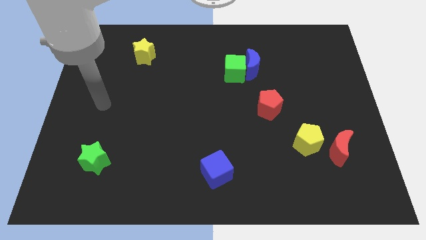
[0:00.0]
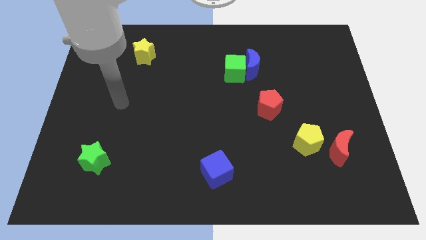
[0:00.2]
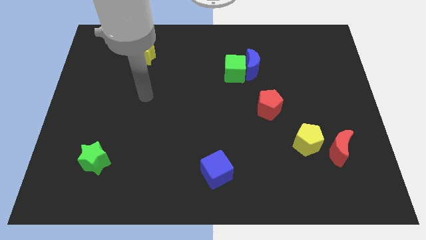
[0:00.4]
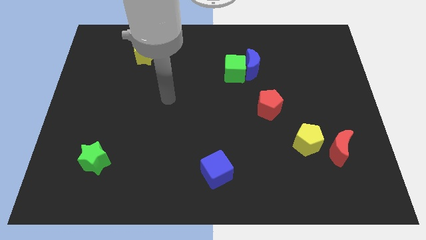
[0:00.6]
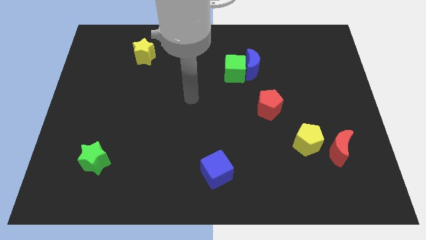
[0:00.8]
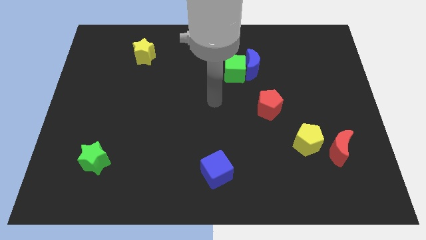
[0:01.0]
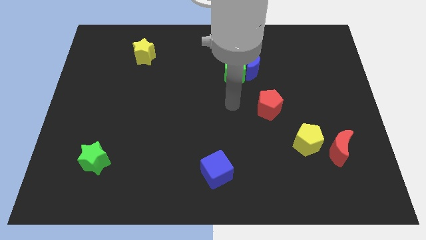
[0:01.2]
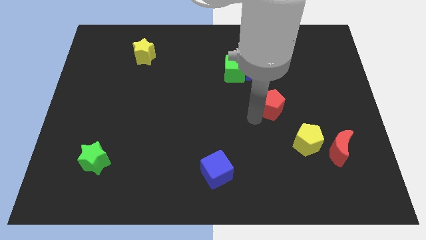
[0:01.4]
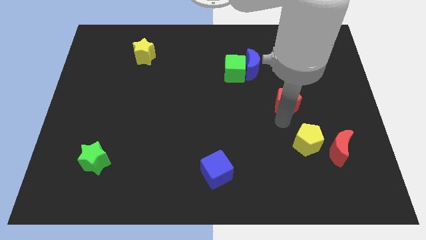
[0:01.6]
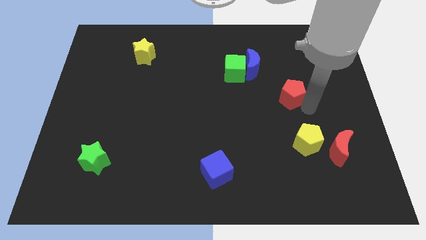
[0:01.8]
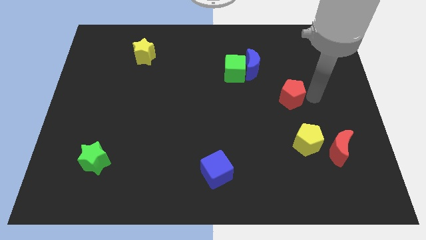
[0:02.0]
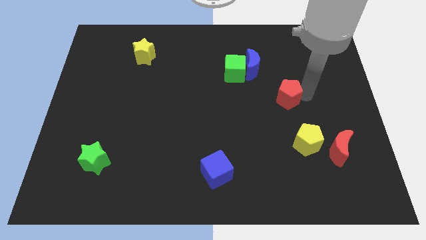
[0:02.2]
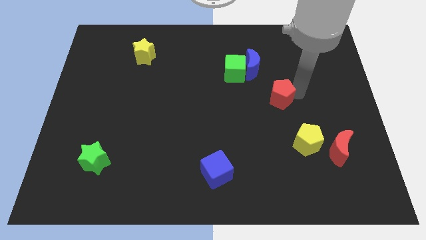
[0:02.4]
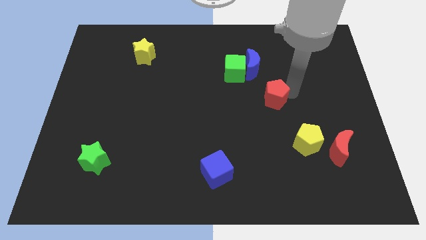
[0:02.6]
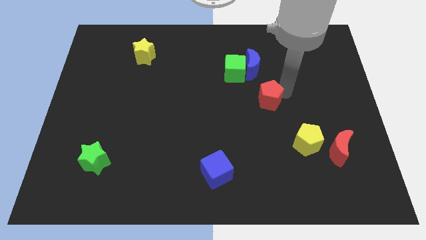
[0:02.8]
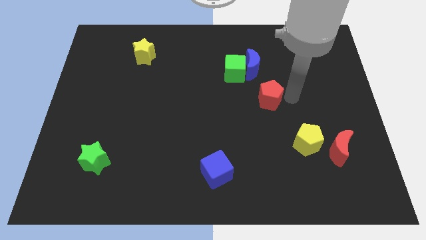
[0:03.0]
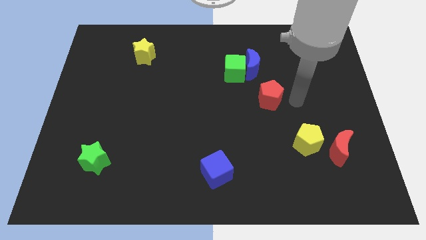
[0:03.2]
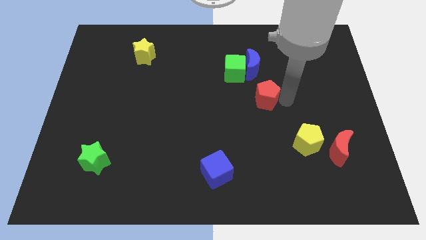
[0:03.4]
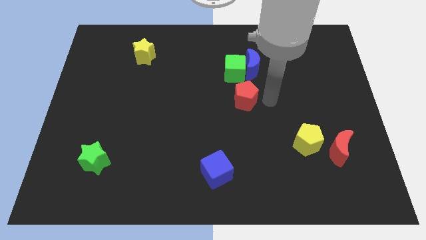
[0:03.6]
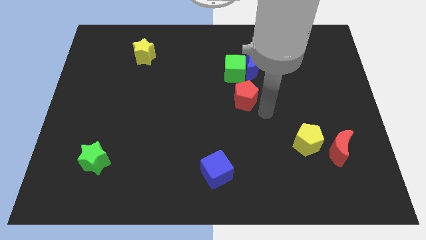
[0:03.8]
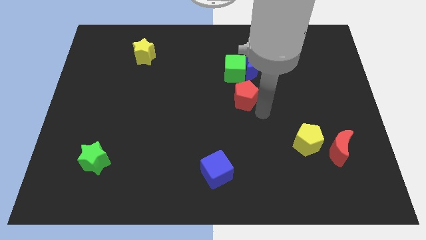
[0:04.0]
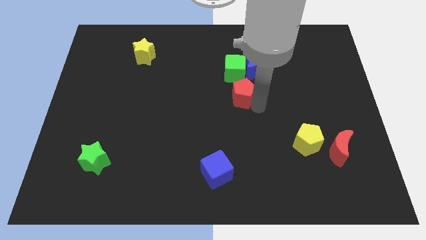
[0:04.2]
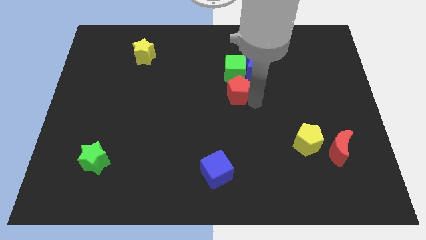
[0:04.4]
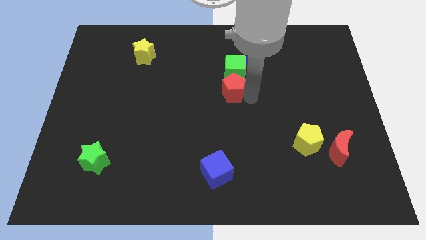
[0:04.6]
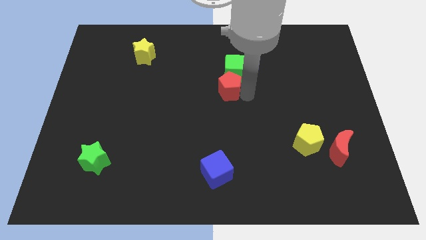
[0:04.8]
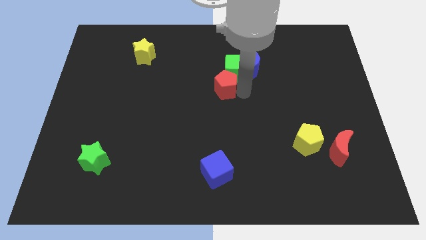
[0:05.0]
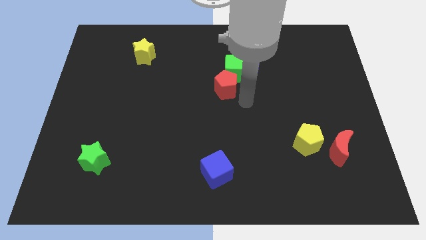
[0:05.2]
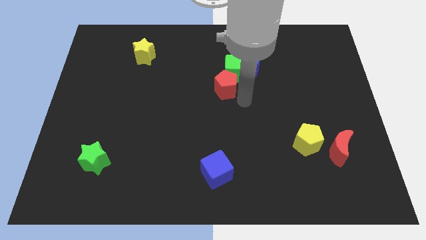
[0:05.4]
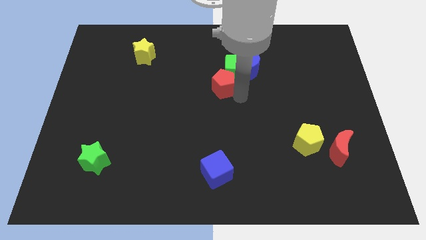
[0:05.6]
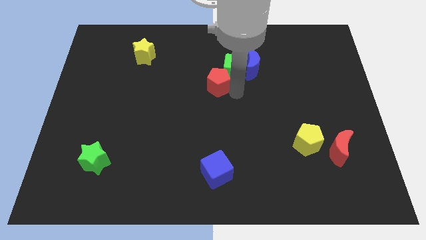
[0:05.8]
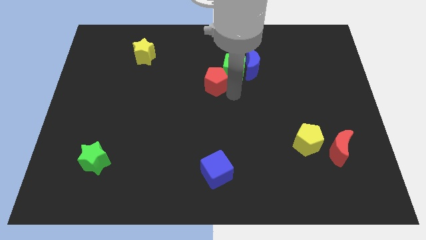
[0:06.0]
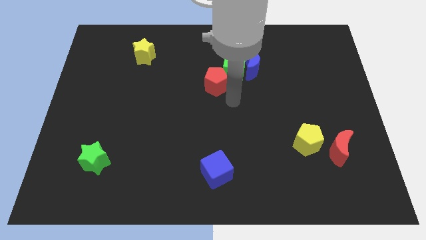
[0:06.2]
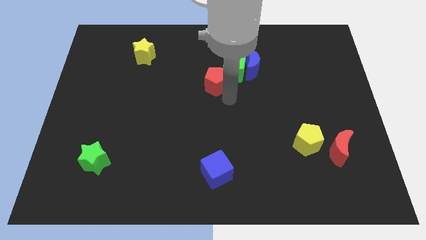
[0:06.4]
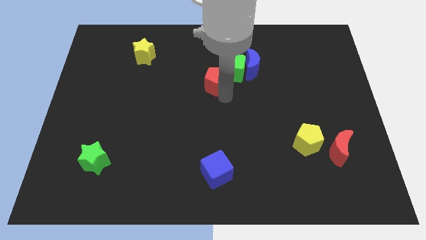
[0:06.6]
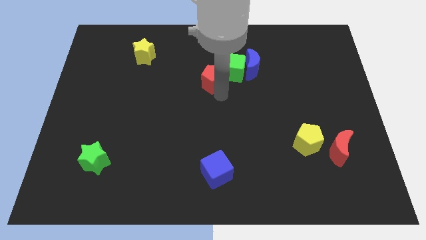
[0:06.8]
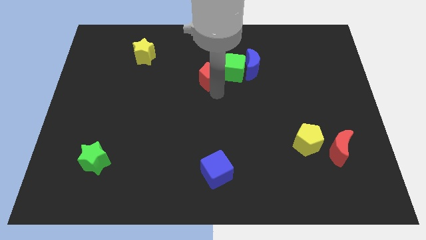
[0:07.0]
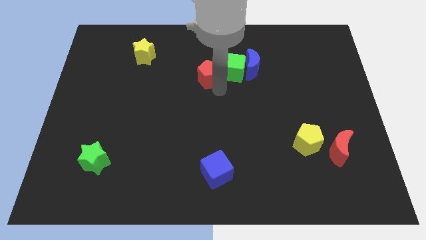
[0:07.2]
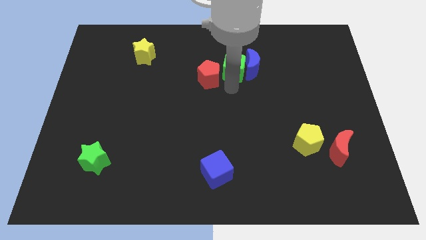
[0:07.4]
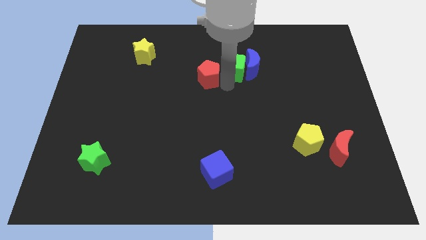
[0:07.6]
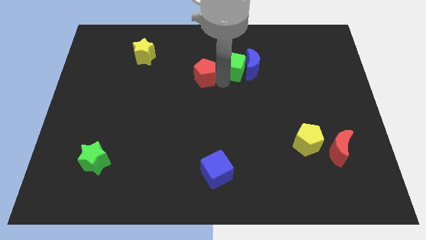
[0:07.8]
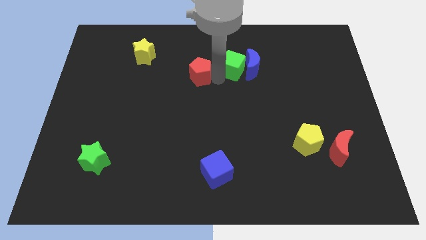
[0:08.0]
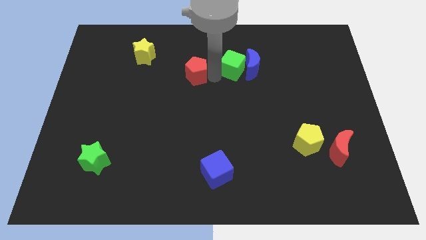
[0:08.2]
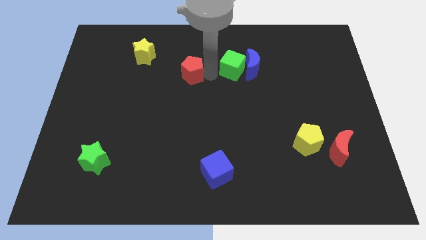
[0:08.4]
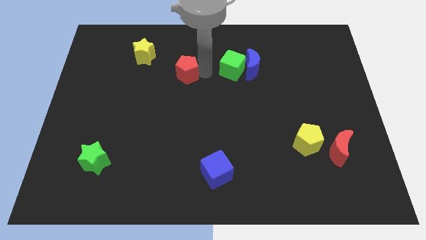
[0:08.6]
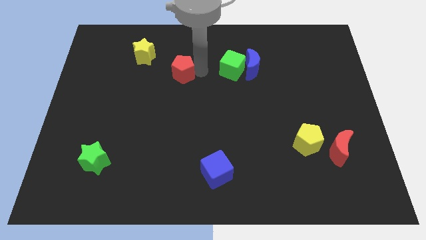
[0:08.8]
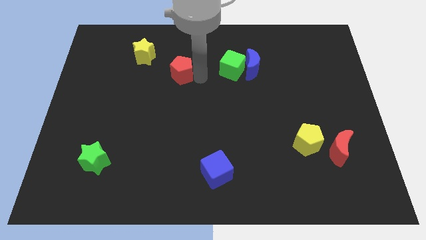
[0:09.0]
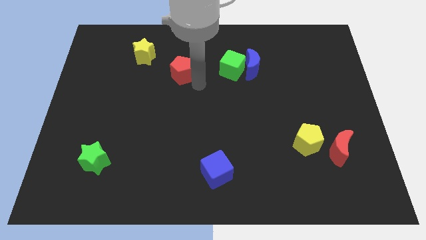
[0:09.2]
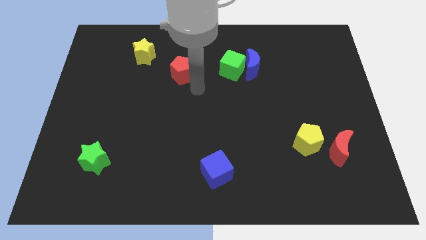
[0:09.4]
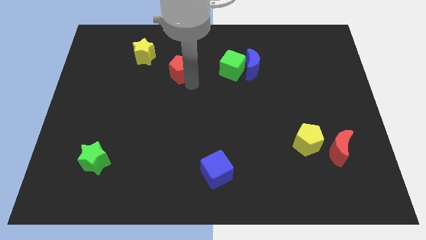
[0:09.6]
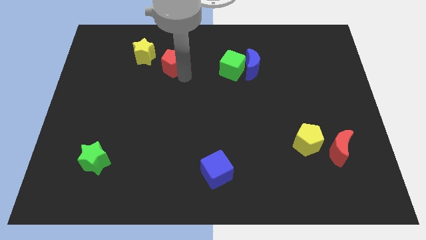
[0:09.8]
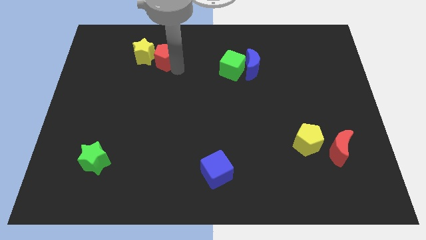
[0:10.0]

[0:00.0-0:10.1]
put the red pentagon towards the yellow star

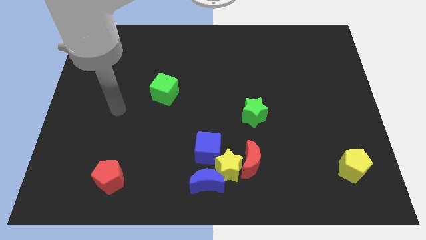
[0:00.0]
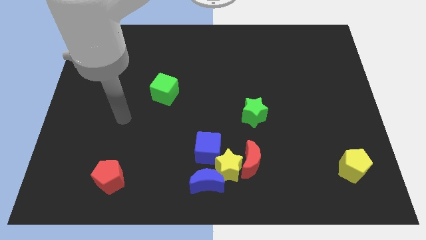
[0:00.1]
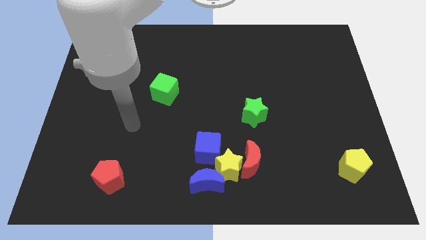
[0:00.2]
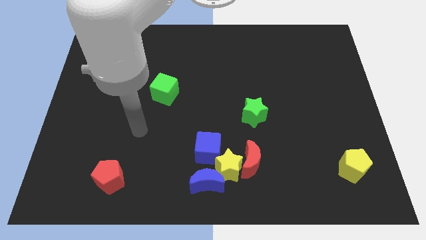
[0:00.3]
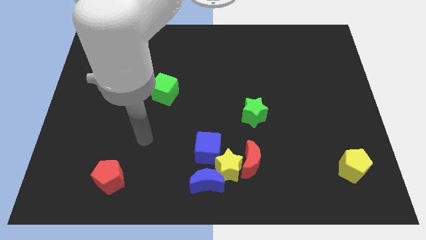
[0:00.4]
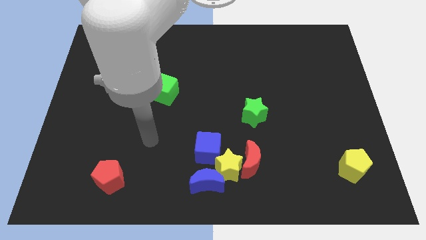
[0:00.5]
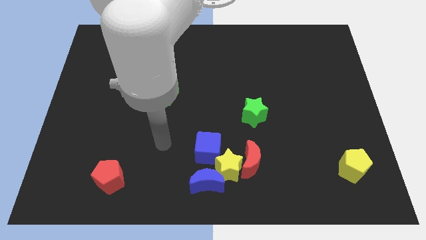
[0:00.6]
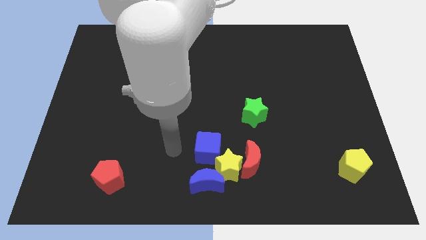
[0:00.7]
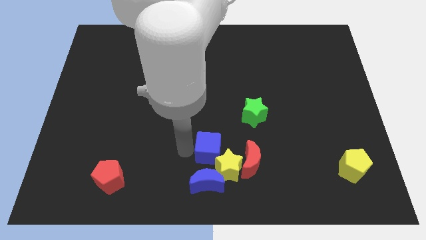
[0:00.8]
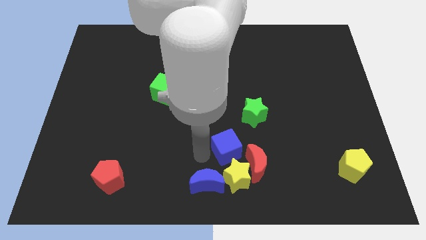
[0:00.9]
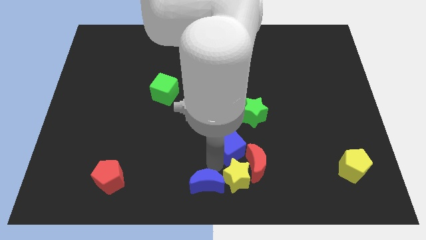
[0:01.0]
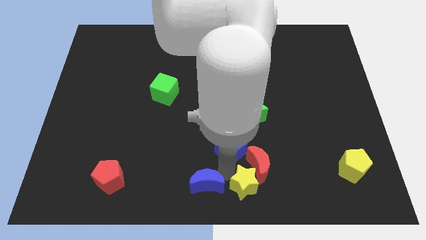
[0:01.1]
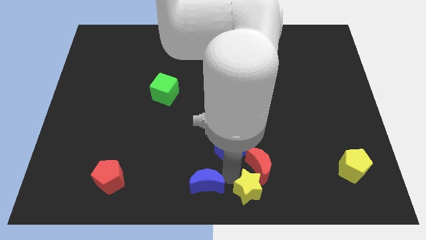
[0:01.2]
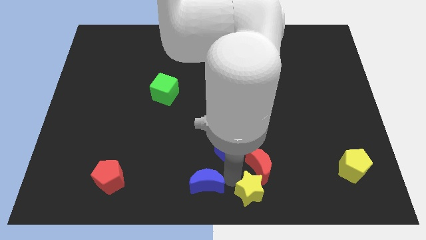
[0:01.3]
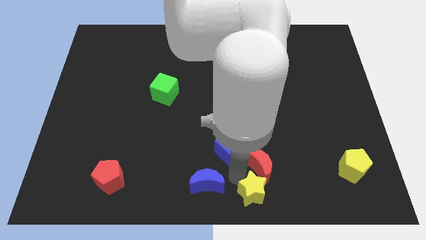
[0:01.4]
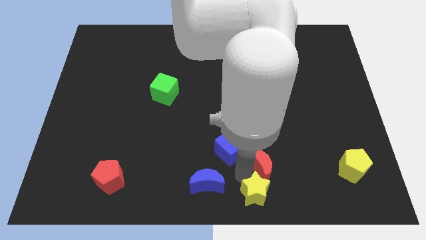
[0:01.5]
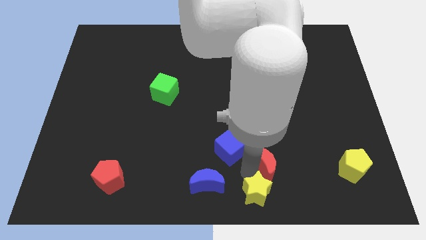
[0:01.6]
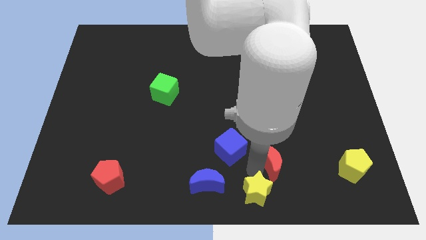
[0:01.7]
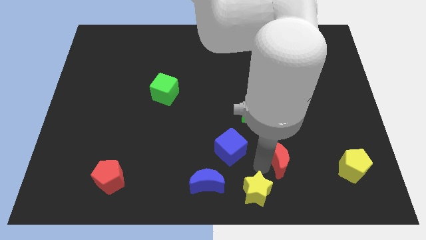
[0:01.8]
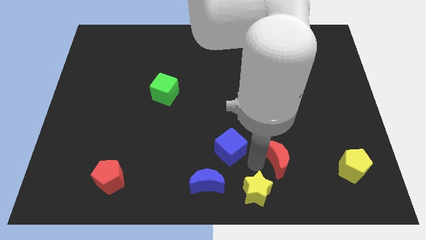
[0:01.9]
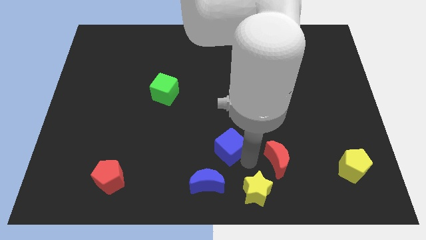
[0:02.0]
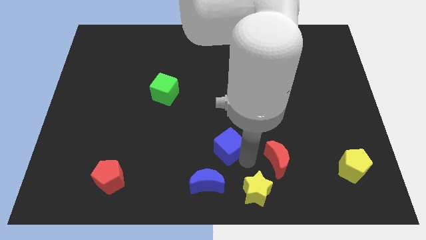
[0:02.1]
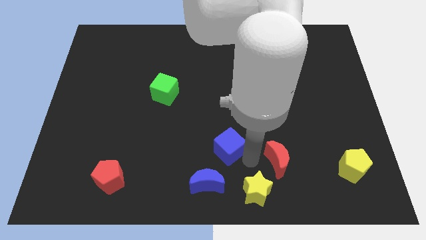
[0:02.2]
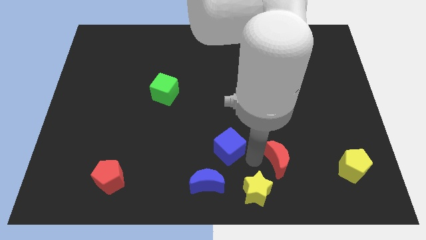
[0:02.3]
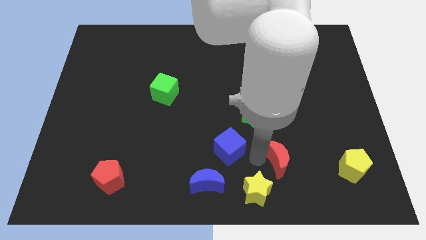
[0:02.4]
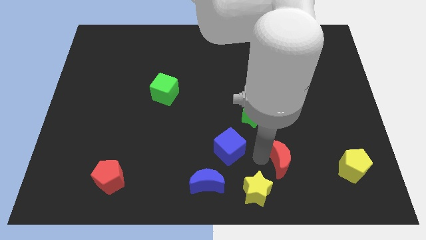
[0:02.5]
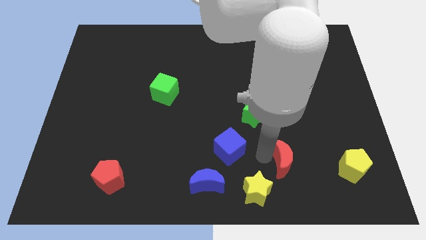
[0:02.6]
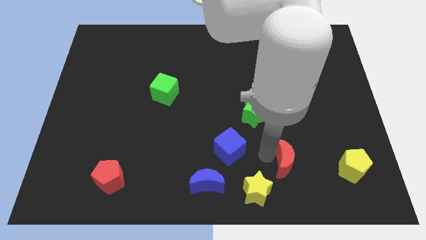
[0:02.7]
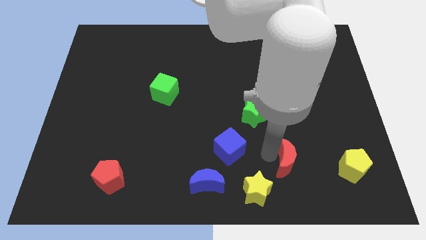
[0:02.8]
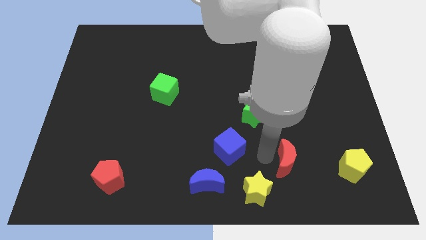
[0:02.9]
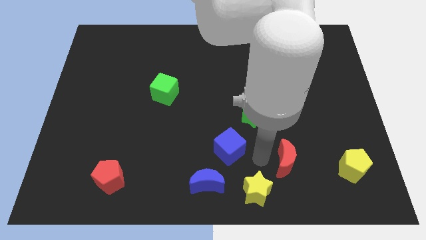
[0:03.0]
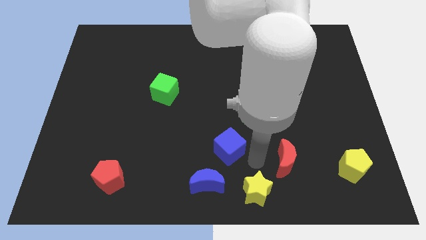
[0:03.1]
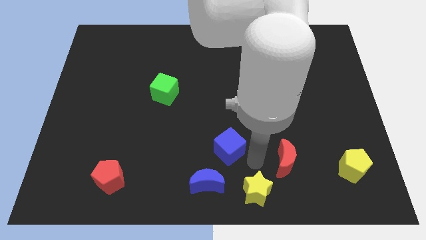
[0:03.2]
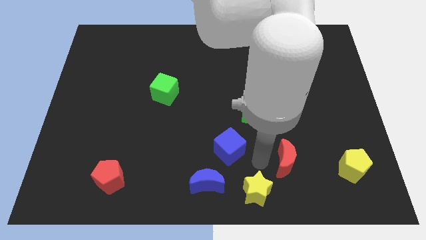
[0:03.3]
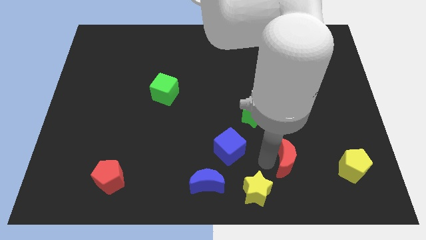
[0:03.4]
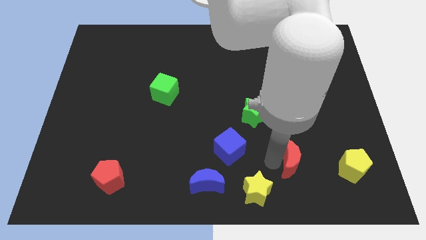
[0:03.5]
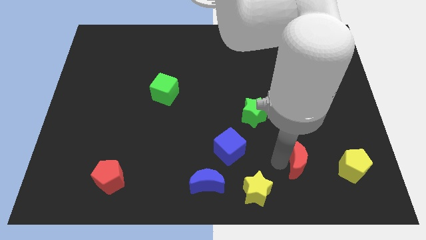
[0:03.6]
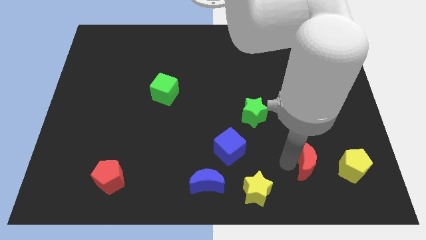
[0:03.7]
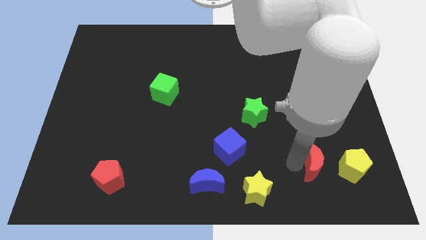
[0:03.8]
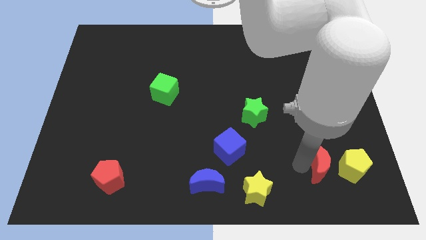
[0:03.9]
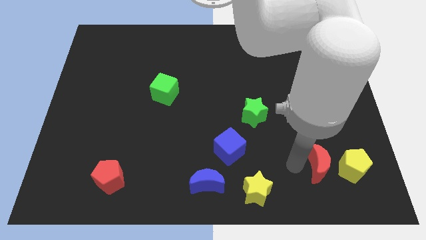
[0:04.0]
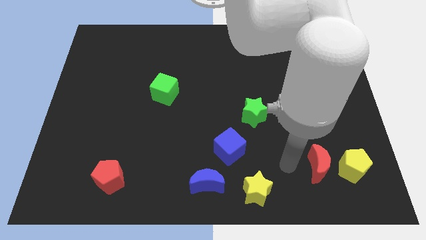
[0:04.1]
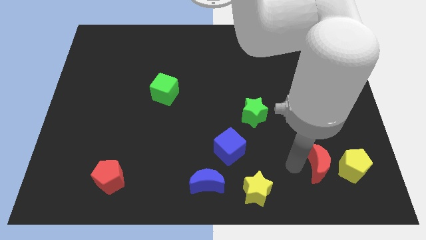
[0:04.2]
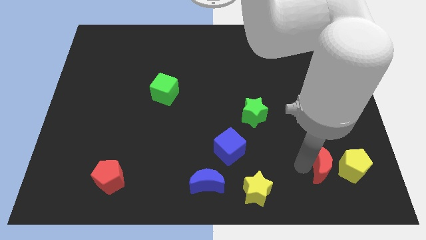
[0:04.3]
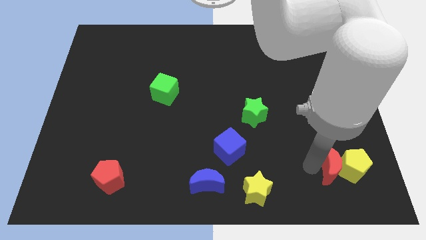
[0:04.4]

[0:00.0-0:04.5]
slide the red moon close to the yellow pentagon
